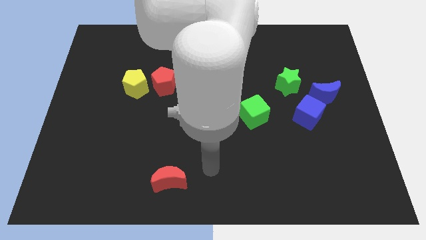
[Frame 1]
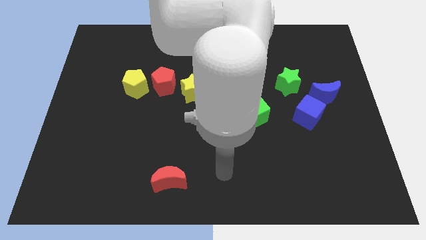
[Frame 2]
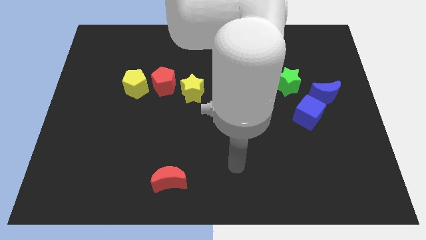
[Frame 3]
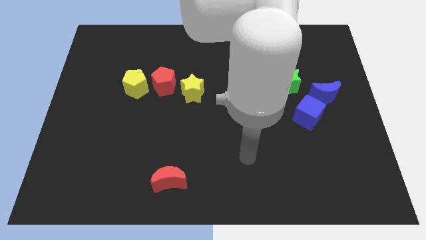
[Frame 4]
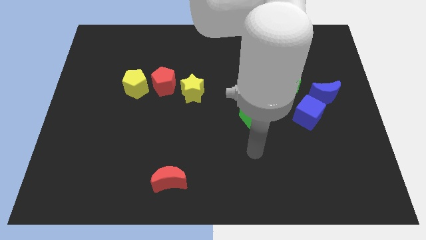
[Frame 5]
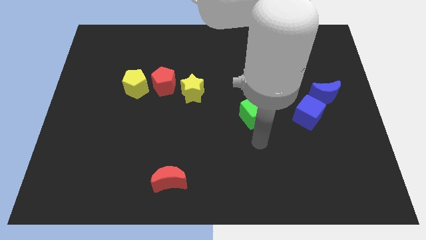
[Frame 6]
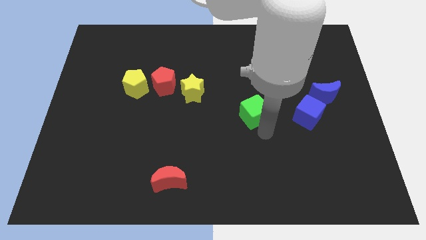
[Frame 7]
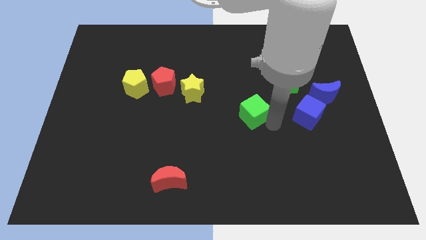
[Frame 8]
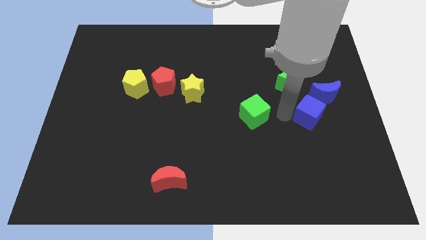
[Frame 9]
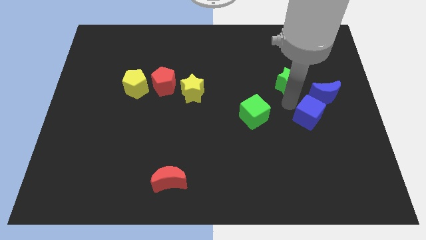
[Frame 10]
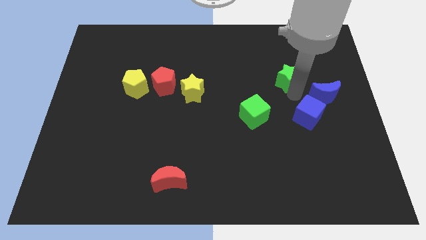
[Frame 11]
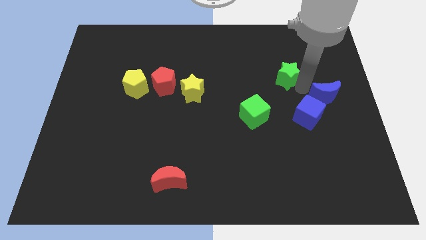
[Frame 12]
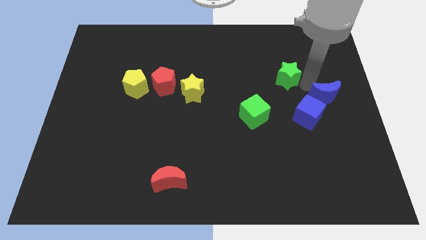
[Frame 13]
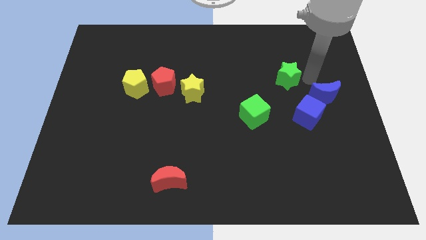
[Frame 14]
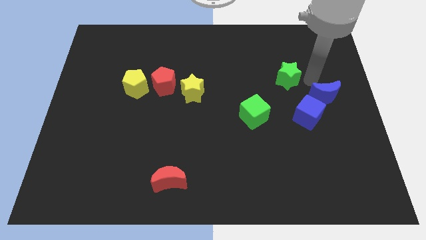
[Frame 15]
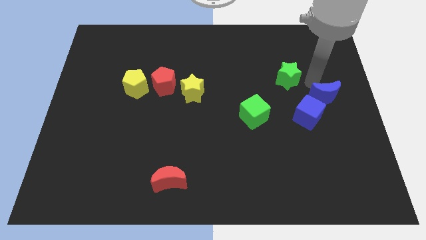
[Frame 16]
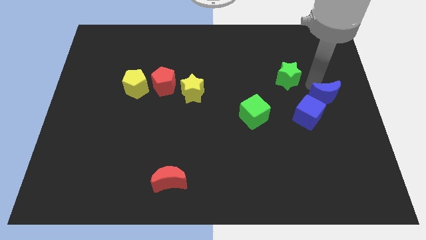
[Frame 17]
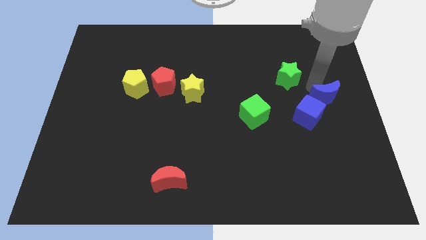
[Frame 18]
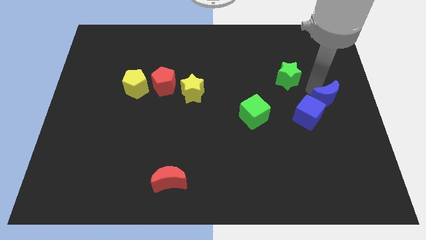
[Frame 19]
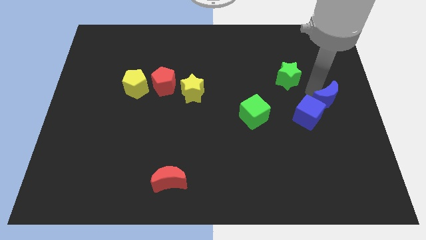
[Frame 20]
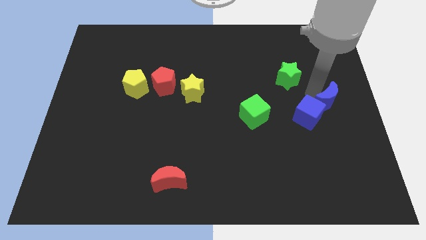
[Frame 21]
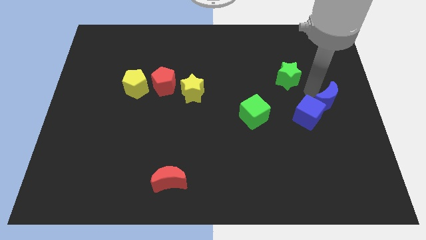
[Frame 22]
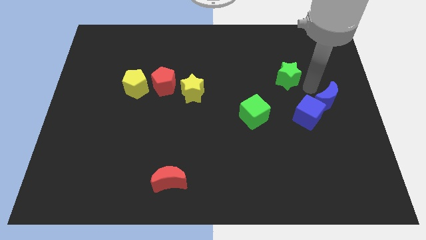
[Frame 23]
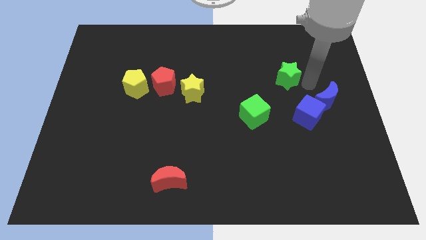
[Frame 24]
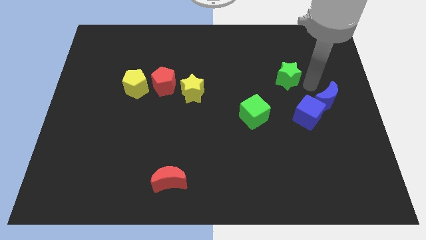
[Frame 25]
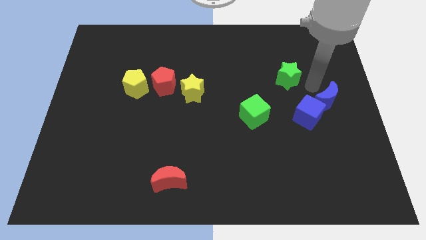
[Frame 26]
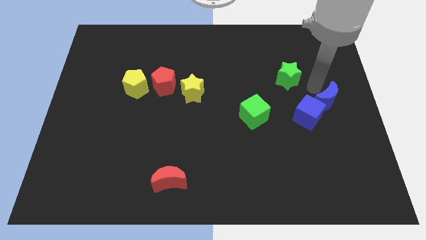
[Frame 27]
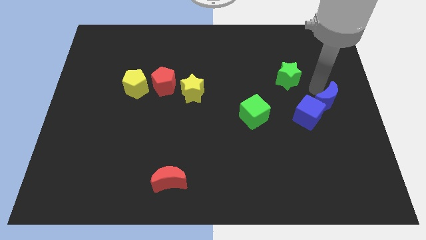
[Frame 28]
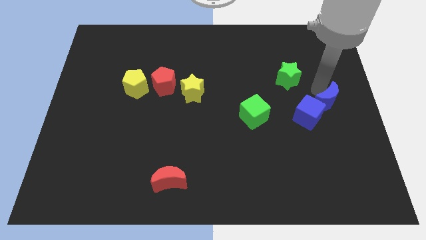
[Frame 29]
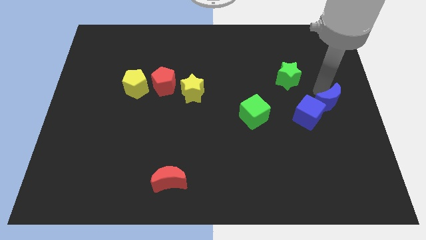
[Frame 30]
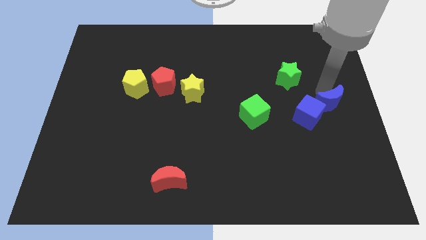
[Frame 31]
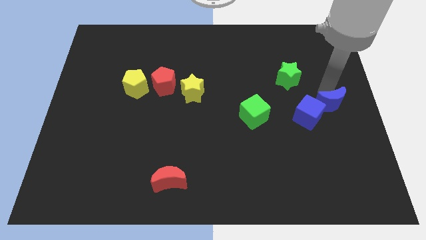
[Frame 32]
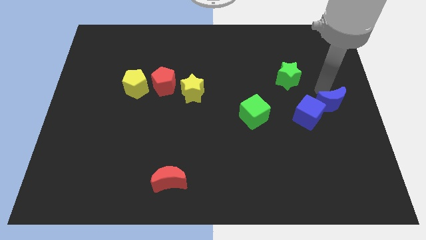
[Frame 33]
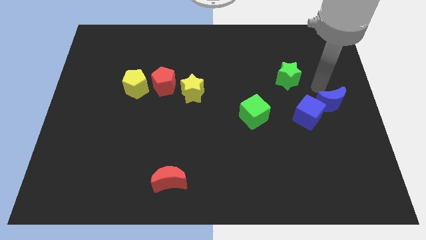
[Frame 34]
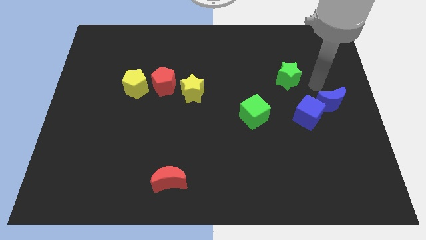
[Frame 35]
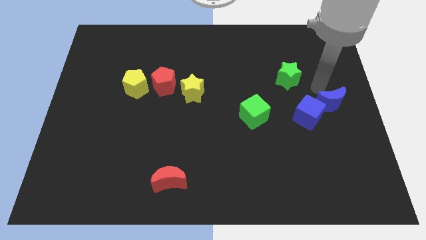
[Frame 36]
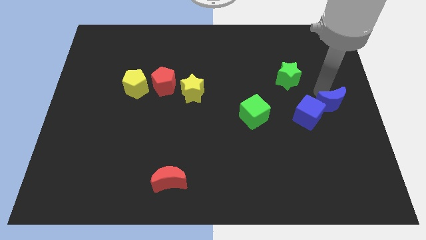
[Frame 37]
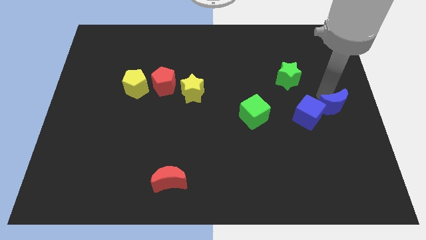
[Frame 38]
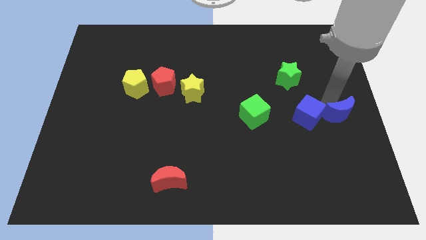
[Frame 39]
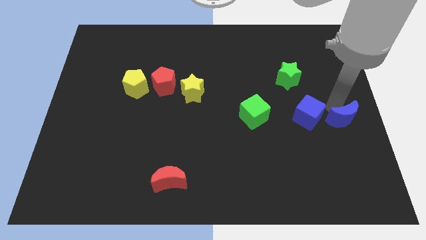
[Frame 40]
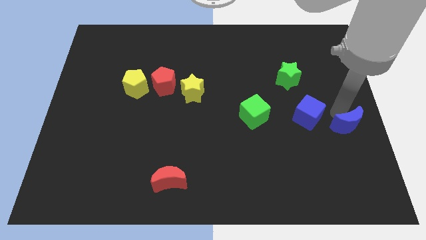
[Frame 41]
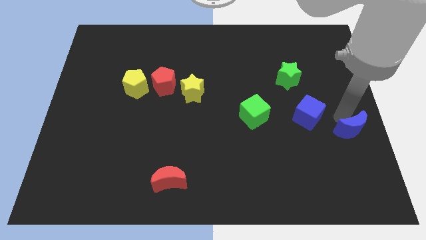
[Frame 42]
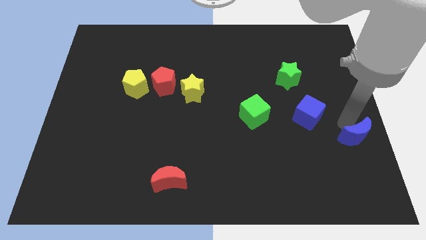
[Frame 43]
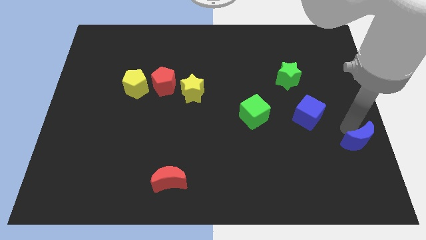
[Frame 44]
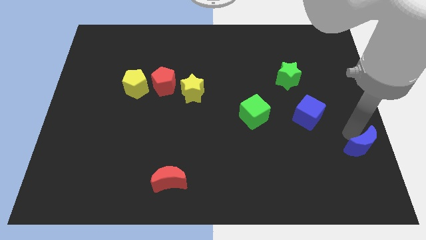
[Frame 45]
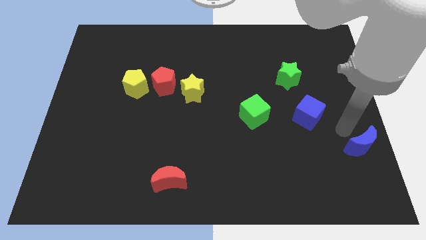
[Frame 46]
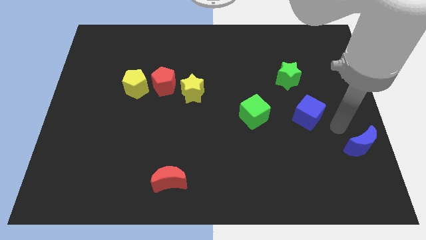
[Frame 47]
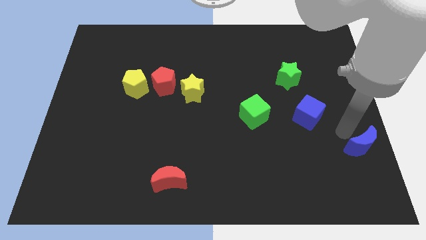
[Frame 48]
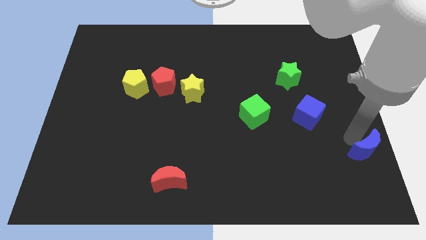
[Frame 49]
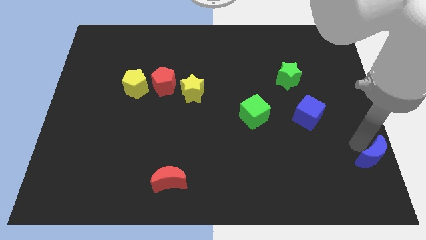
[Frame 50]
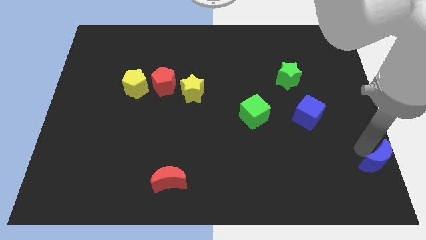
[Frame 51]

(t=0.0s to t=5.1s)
move the blue moon to the lower right corner

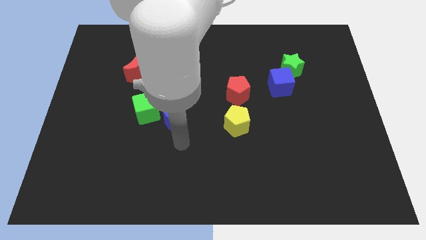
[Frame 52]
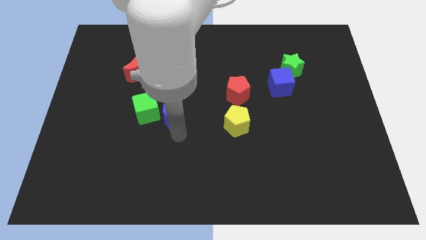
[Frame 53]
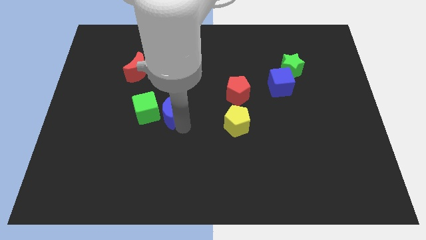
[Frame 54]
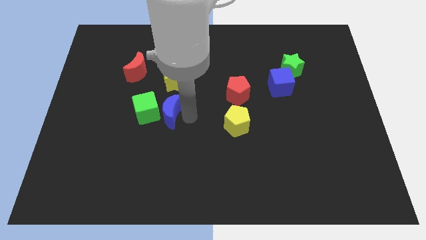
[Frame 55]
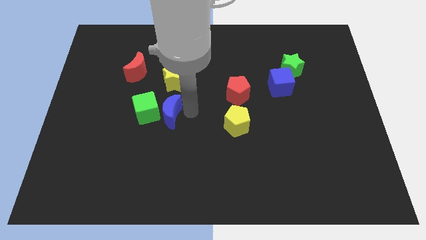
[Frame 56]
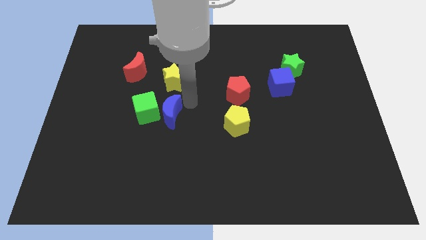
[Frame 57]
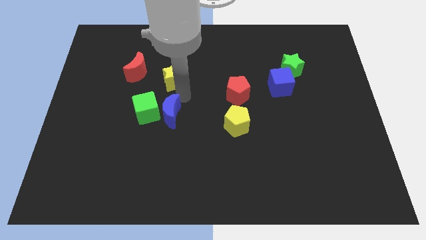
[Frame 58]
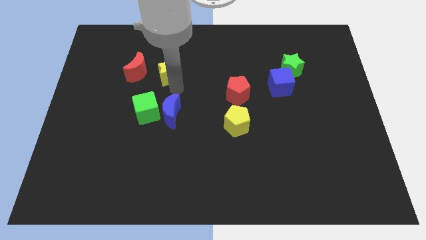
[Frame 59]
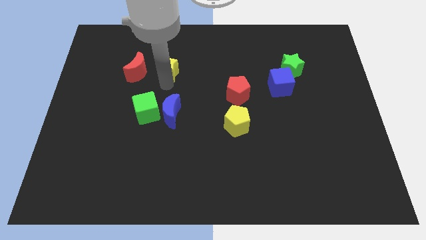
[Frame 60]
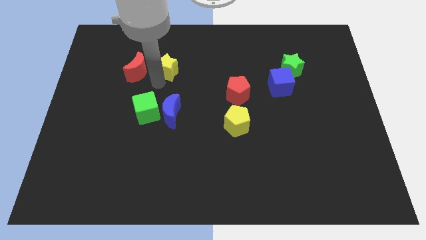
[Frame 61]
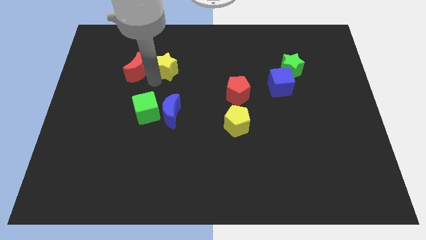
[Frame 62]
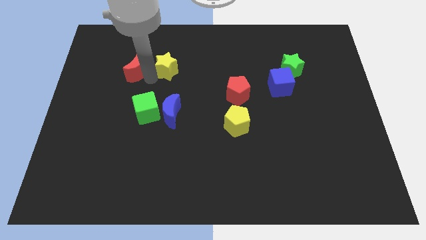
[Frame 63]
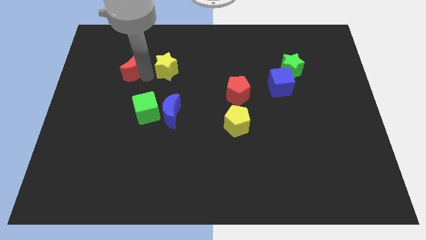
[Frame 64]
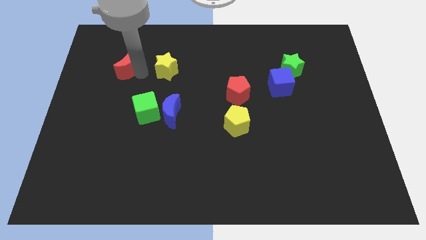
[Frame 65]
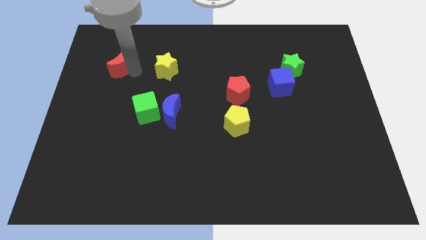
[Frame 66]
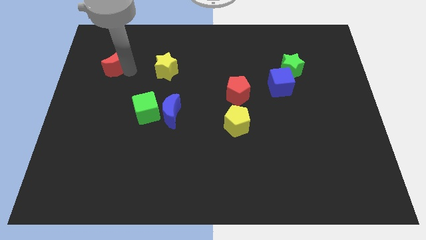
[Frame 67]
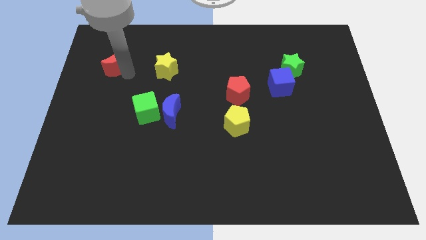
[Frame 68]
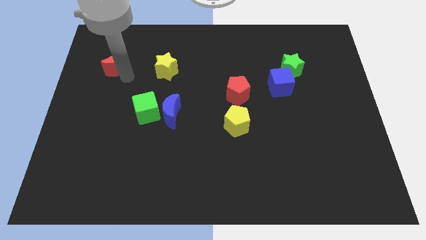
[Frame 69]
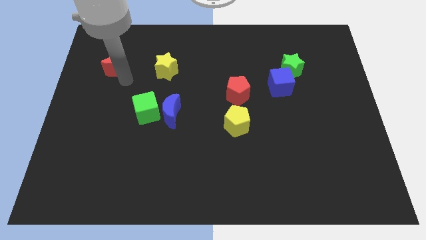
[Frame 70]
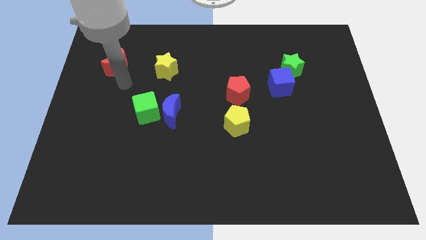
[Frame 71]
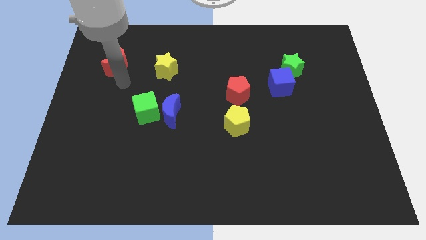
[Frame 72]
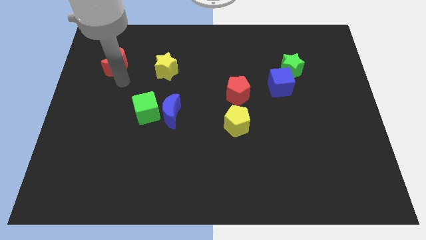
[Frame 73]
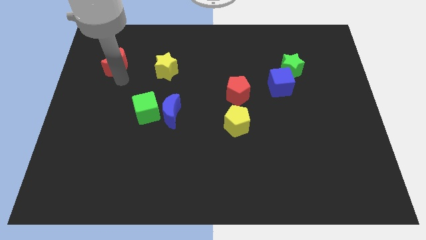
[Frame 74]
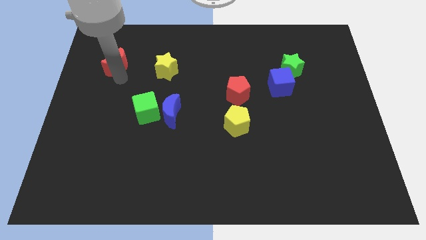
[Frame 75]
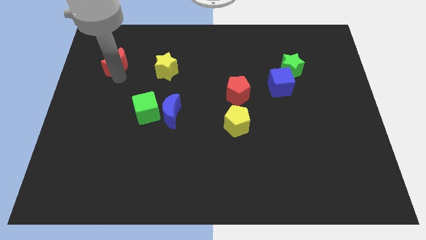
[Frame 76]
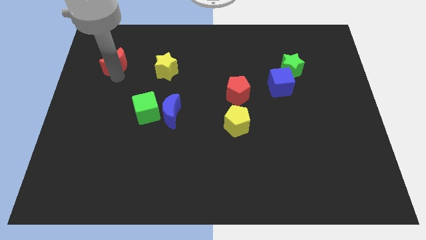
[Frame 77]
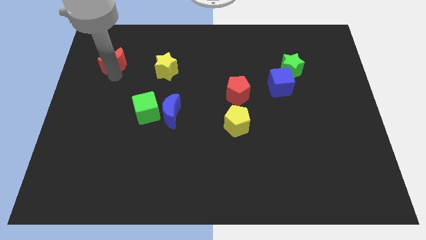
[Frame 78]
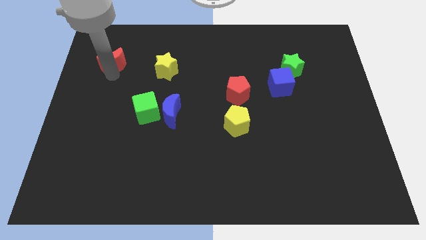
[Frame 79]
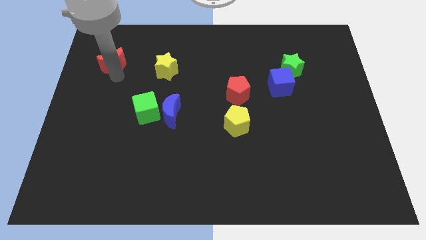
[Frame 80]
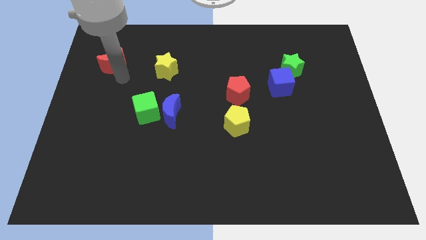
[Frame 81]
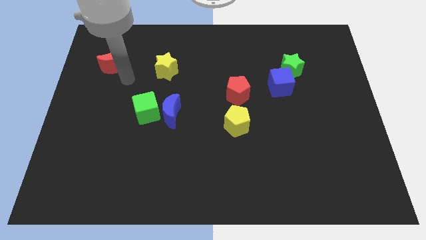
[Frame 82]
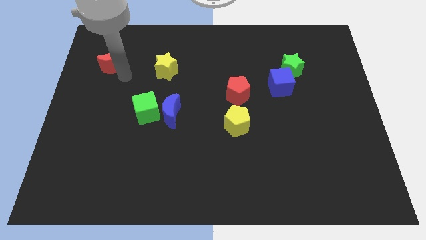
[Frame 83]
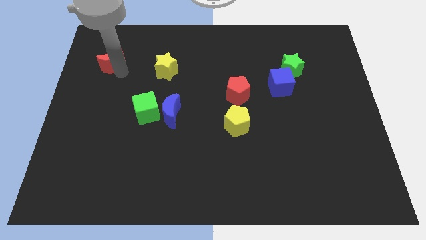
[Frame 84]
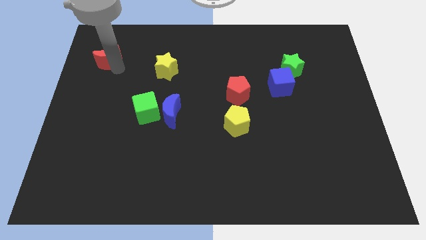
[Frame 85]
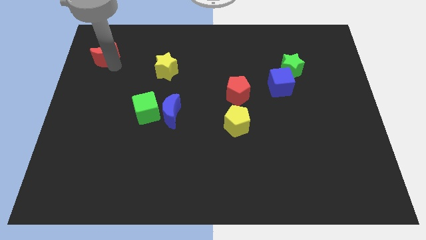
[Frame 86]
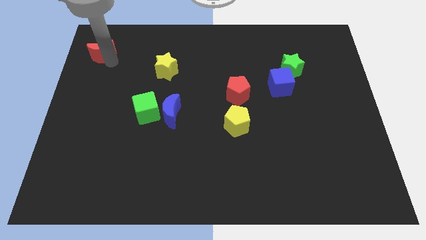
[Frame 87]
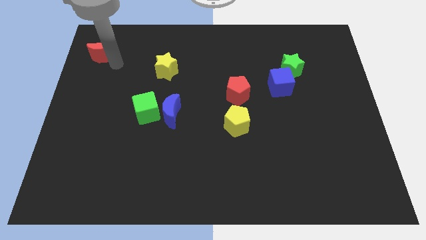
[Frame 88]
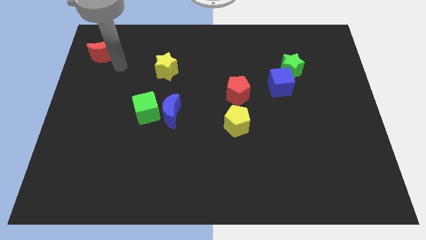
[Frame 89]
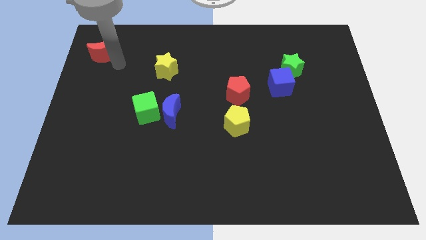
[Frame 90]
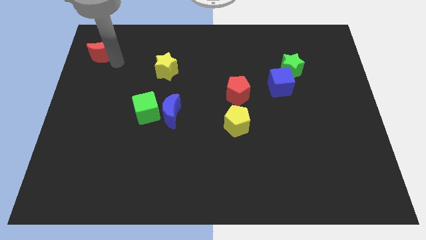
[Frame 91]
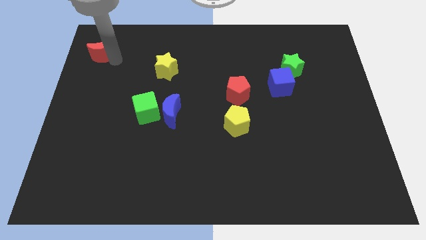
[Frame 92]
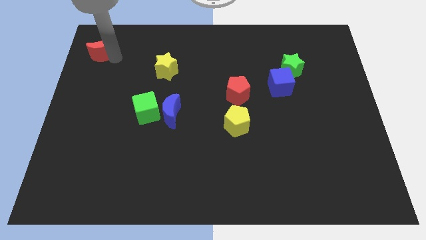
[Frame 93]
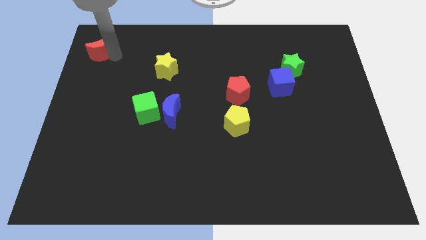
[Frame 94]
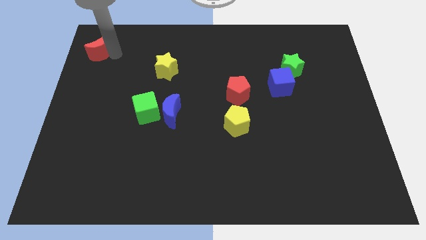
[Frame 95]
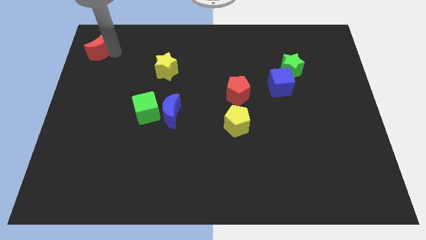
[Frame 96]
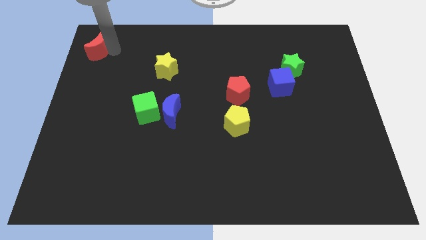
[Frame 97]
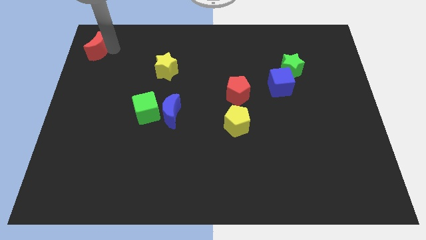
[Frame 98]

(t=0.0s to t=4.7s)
put the red moon to the top left
